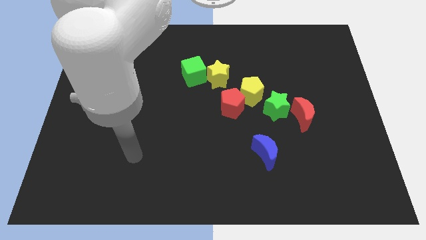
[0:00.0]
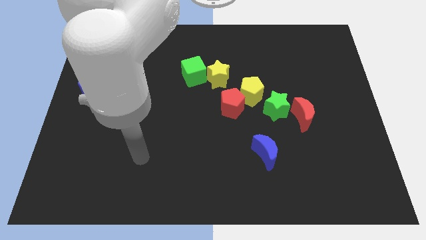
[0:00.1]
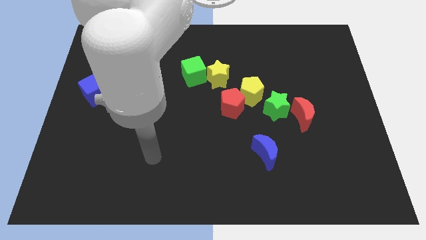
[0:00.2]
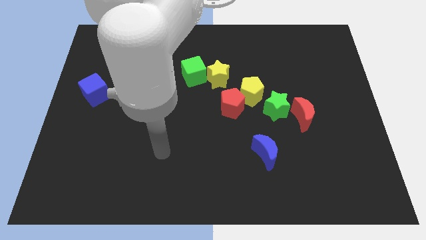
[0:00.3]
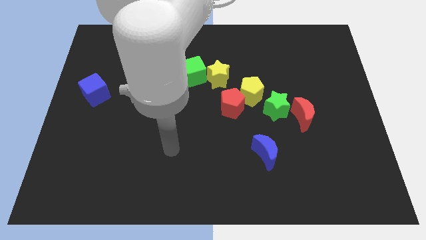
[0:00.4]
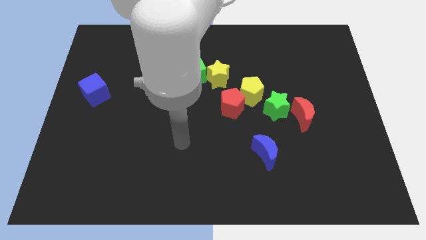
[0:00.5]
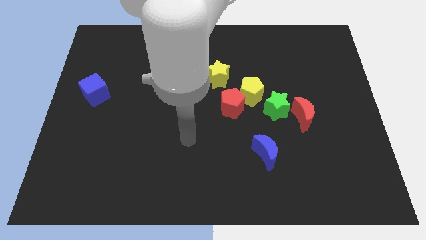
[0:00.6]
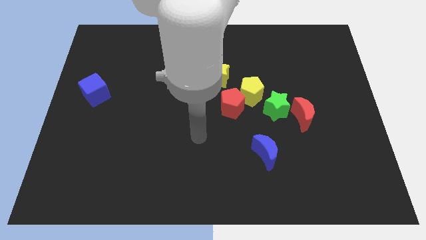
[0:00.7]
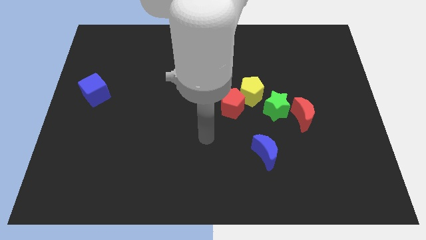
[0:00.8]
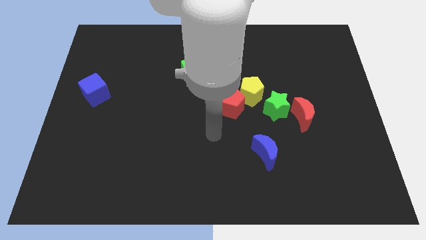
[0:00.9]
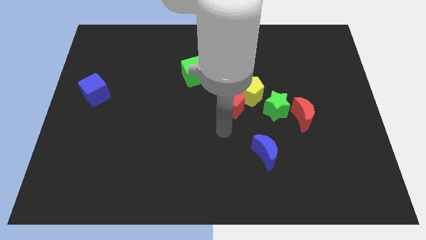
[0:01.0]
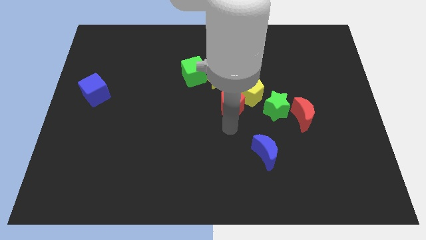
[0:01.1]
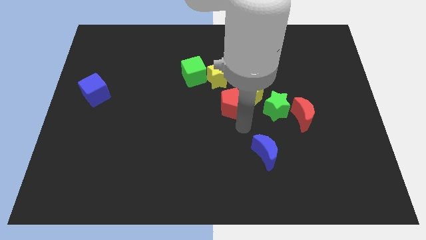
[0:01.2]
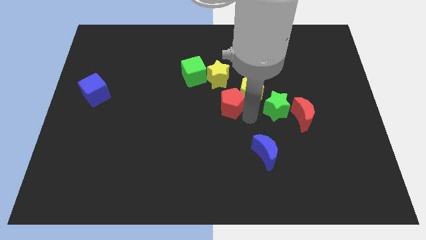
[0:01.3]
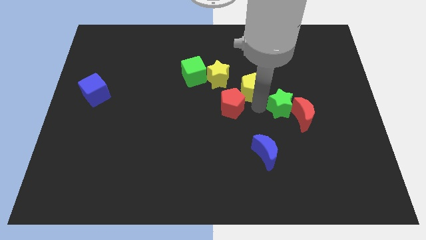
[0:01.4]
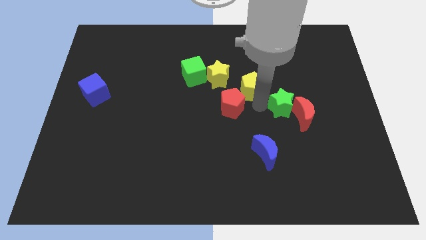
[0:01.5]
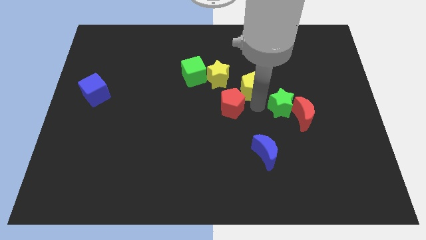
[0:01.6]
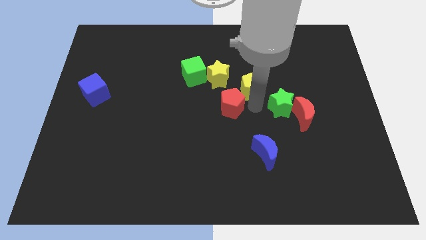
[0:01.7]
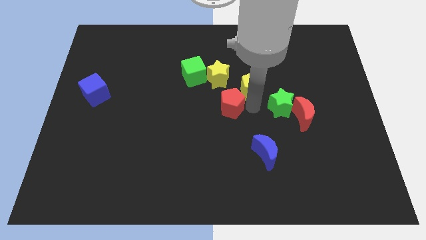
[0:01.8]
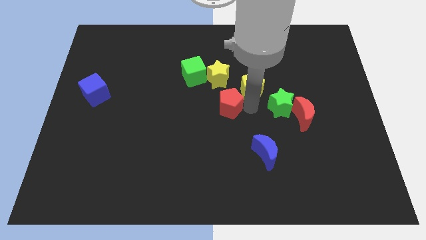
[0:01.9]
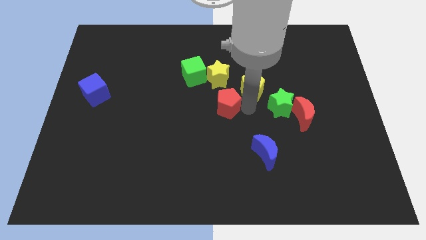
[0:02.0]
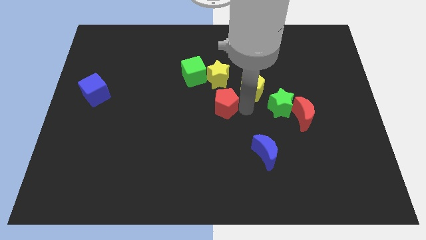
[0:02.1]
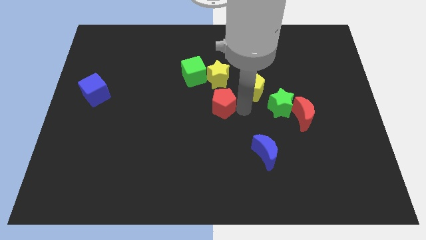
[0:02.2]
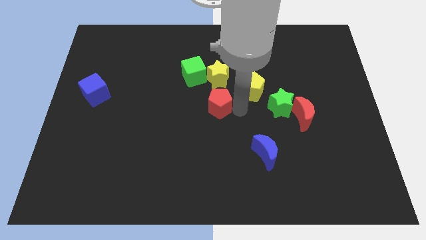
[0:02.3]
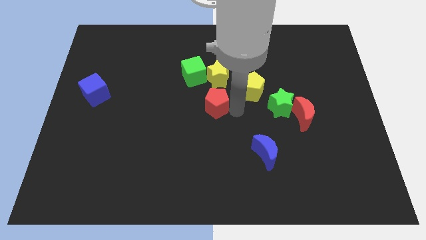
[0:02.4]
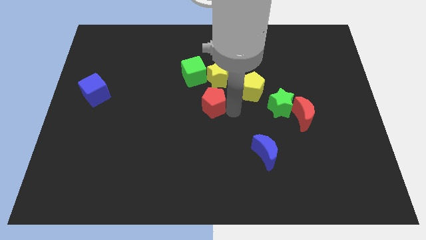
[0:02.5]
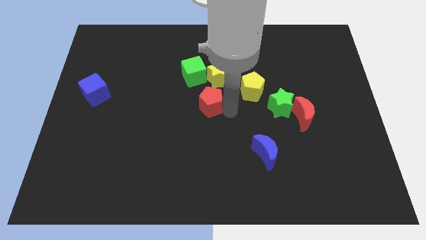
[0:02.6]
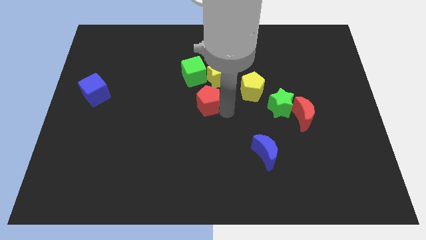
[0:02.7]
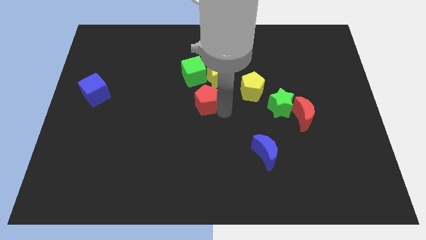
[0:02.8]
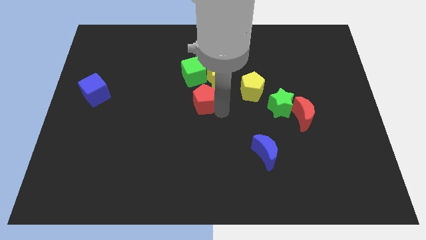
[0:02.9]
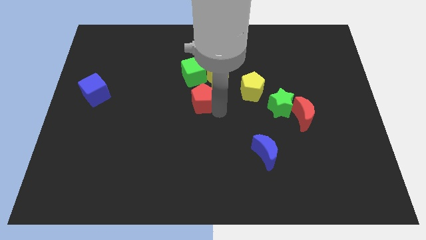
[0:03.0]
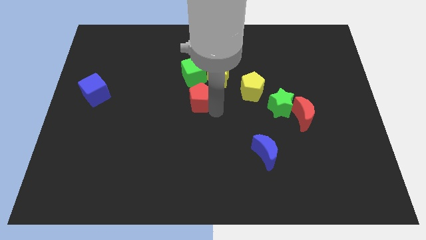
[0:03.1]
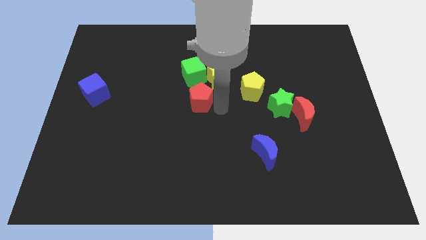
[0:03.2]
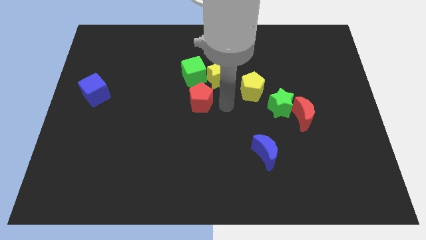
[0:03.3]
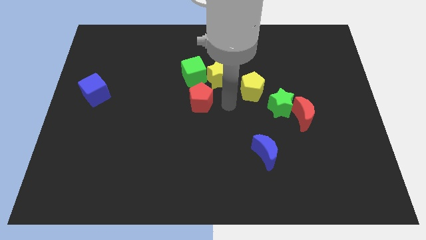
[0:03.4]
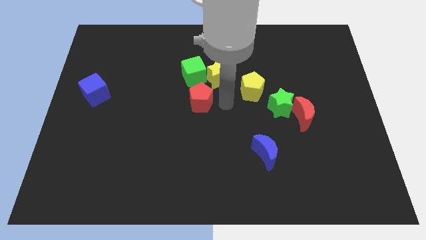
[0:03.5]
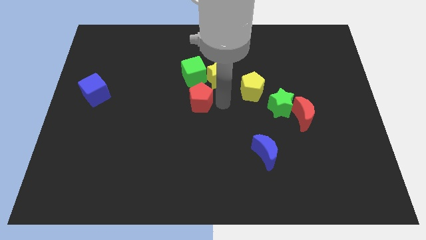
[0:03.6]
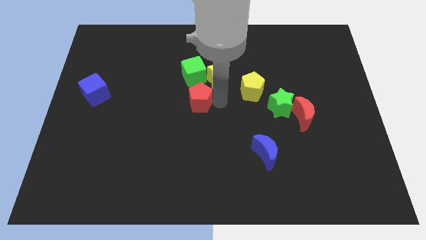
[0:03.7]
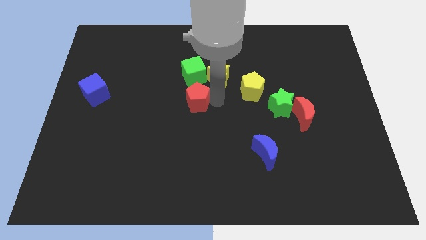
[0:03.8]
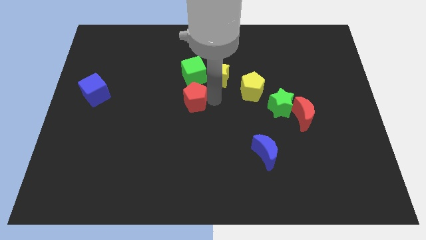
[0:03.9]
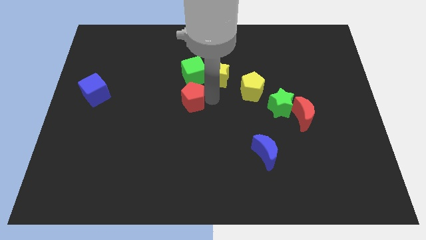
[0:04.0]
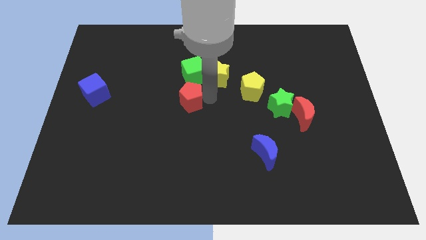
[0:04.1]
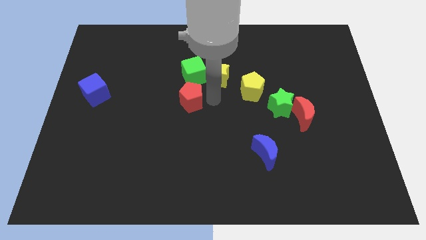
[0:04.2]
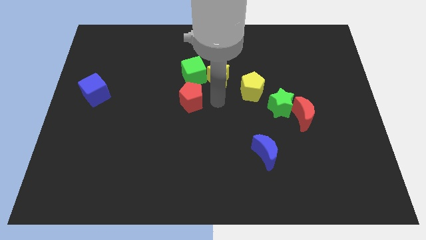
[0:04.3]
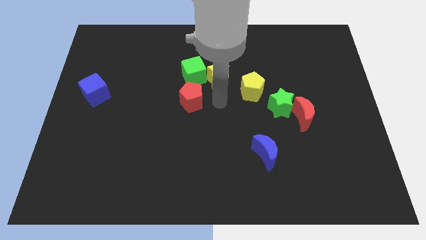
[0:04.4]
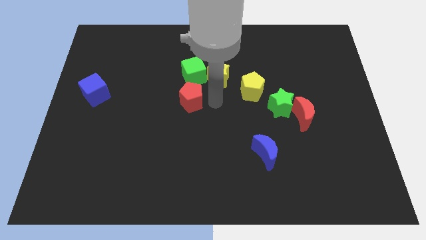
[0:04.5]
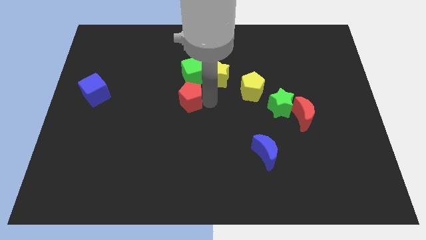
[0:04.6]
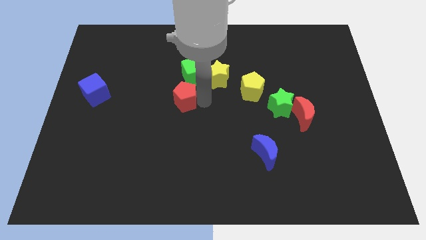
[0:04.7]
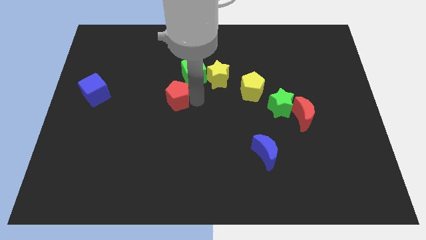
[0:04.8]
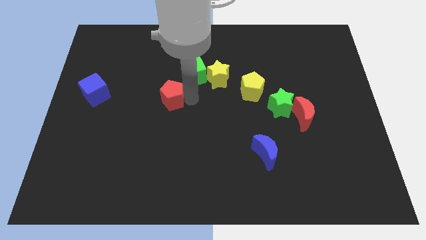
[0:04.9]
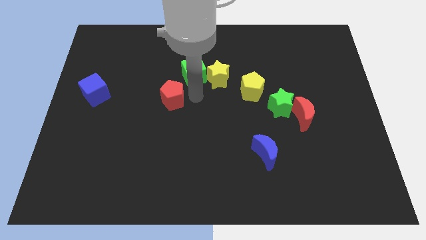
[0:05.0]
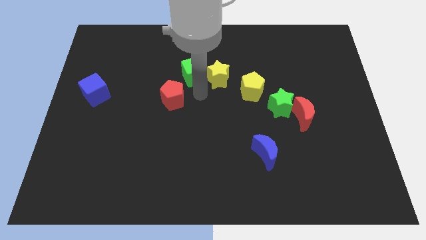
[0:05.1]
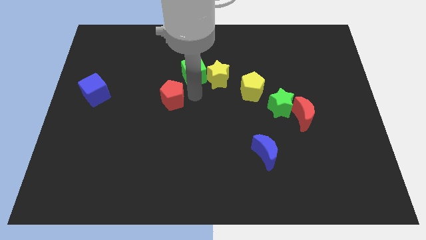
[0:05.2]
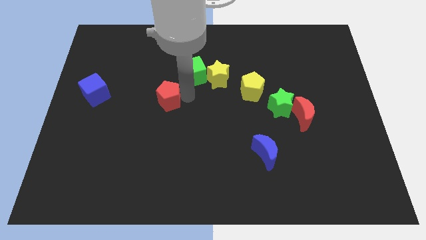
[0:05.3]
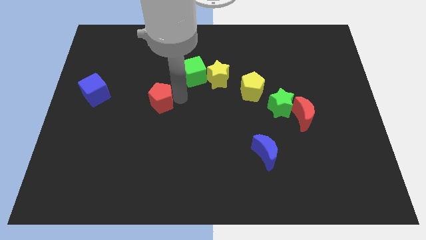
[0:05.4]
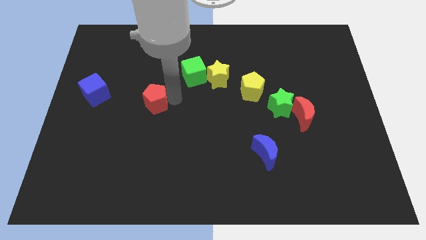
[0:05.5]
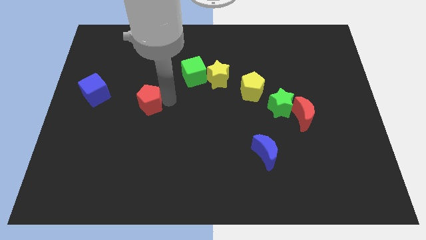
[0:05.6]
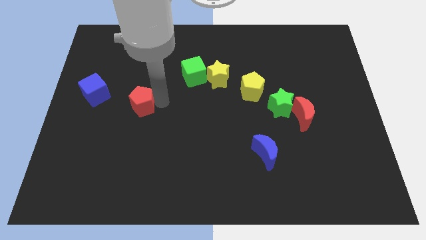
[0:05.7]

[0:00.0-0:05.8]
push the red pentagon left

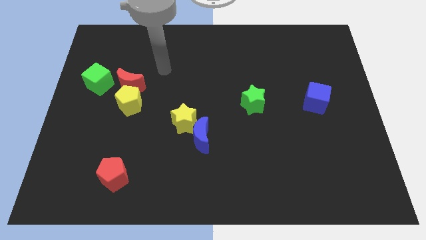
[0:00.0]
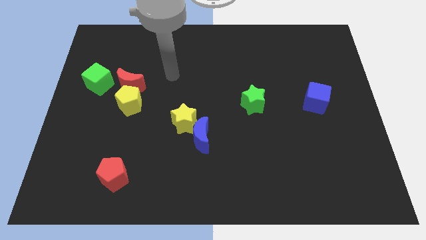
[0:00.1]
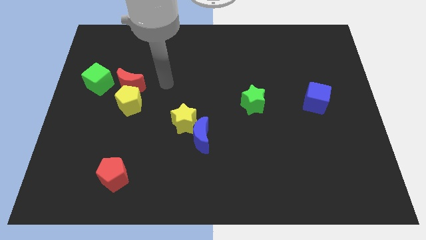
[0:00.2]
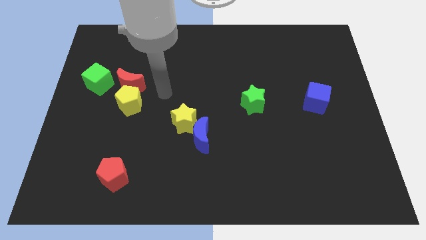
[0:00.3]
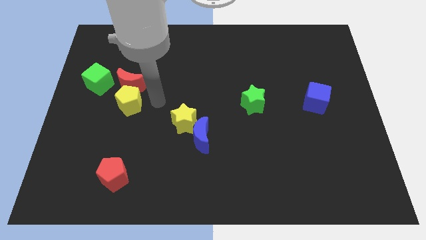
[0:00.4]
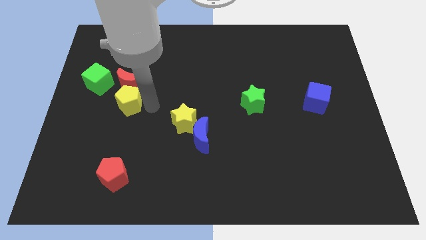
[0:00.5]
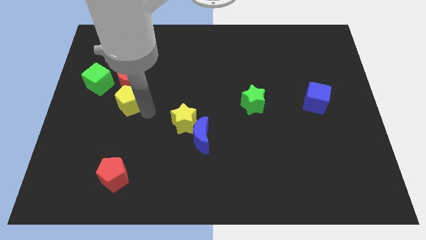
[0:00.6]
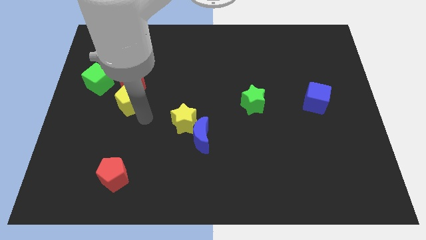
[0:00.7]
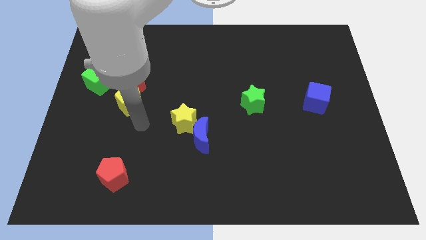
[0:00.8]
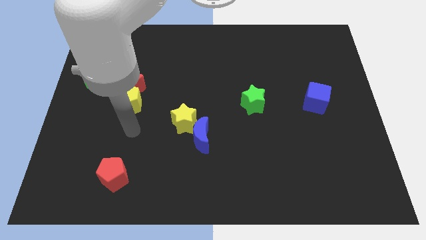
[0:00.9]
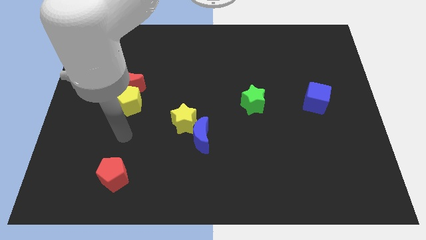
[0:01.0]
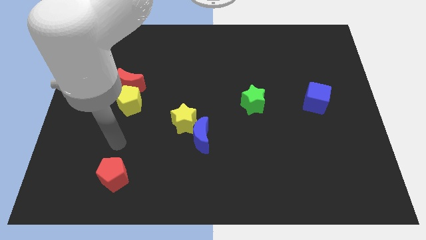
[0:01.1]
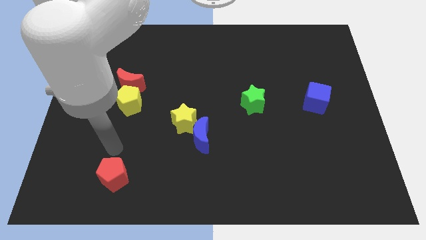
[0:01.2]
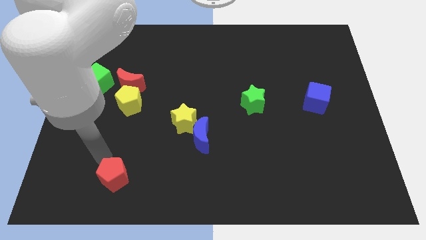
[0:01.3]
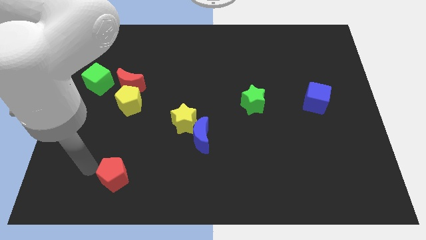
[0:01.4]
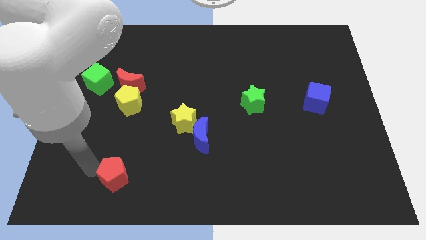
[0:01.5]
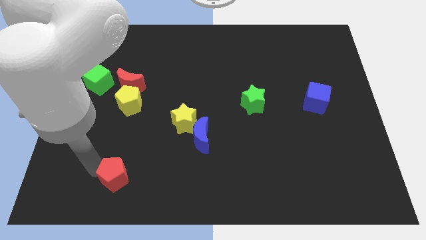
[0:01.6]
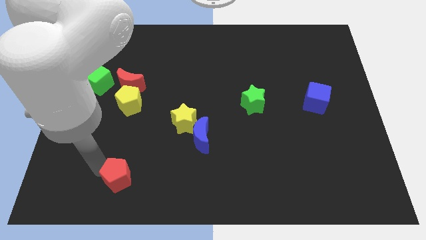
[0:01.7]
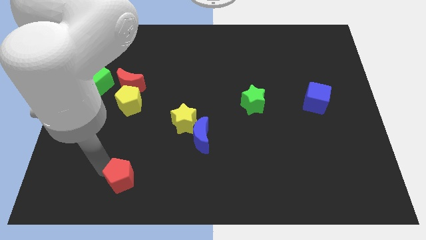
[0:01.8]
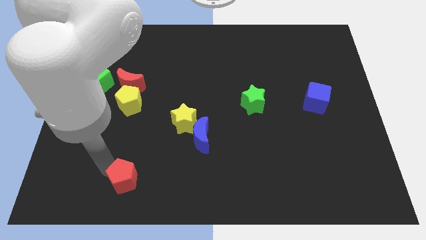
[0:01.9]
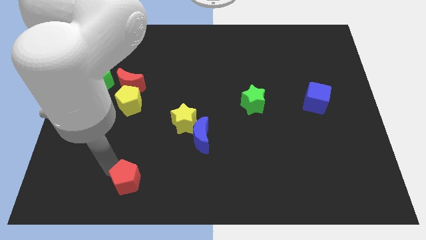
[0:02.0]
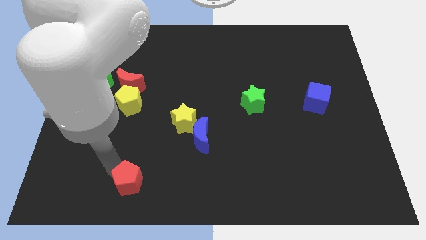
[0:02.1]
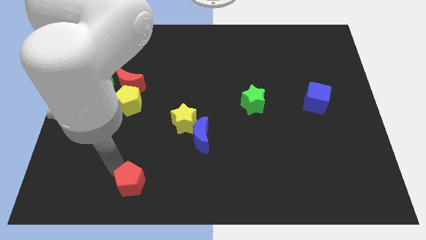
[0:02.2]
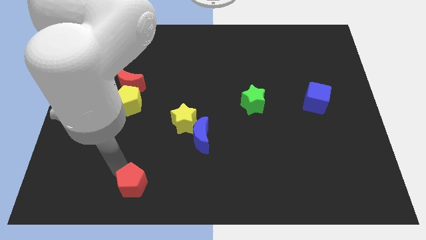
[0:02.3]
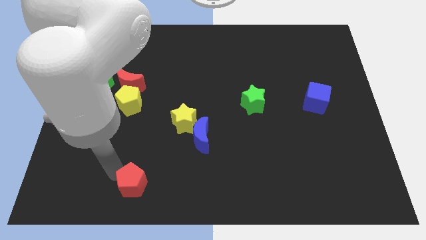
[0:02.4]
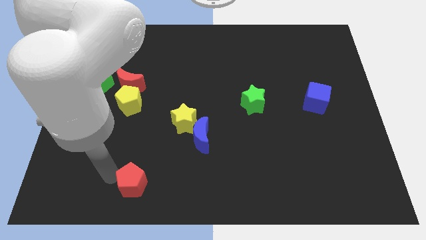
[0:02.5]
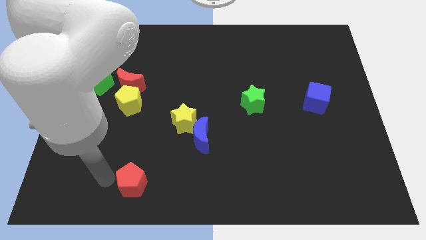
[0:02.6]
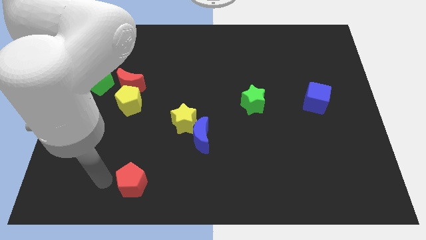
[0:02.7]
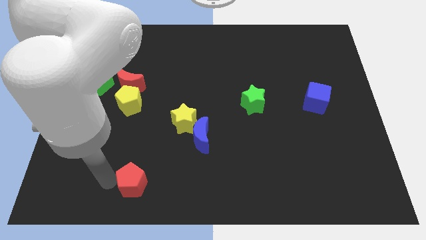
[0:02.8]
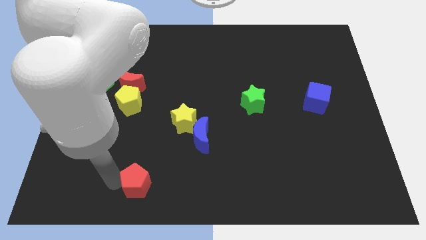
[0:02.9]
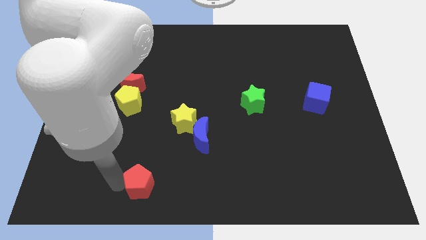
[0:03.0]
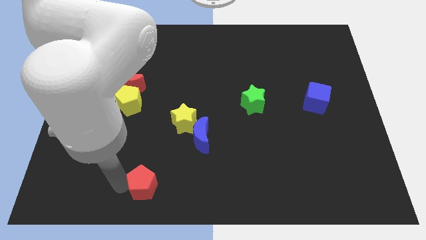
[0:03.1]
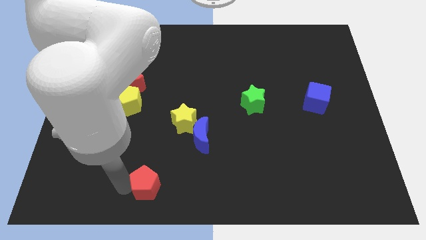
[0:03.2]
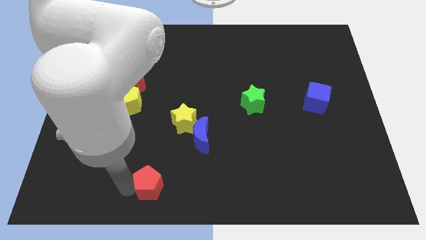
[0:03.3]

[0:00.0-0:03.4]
slide the red pentagon to the right a bit
